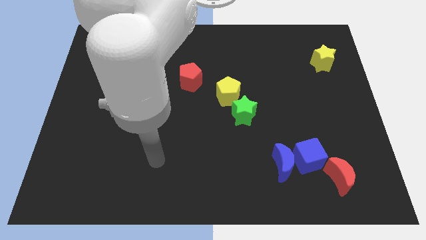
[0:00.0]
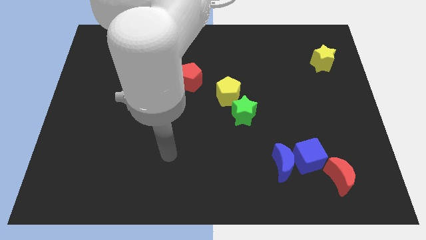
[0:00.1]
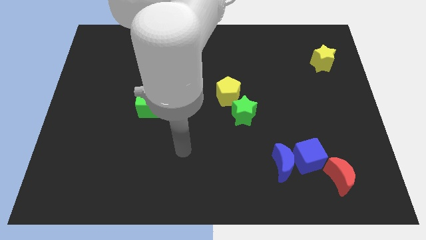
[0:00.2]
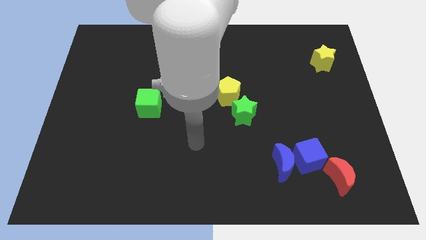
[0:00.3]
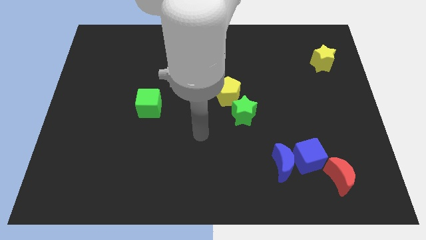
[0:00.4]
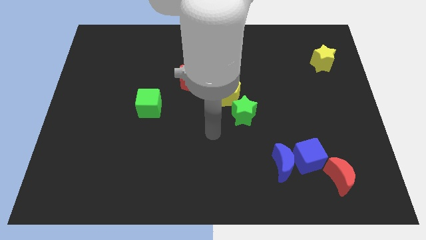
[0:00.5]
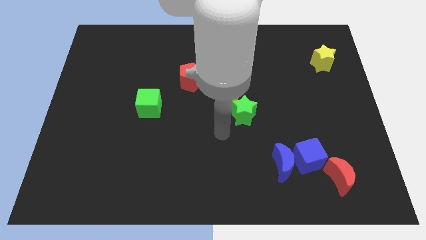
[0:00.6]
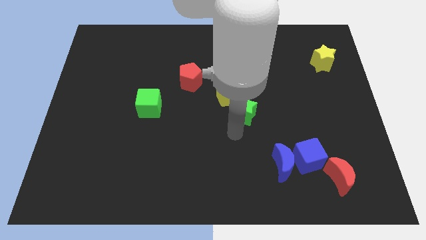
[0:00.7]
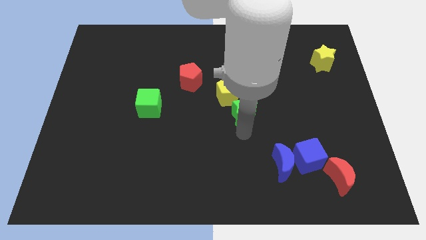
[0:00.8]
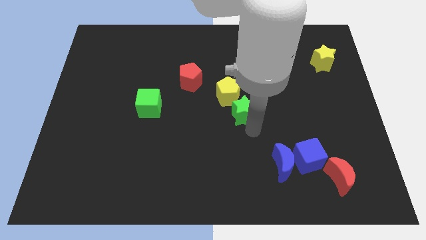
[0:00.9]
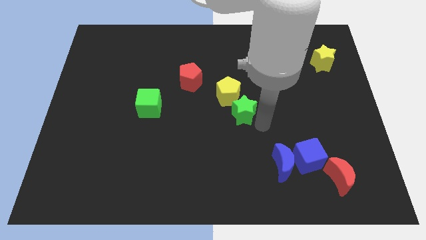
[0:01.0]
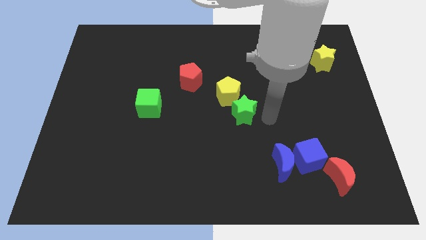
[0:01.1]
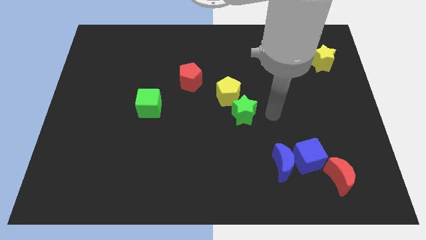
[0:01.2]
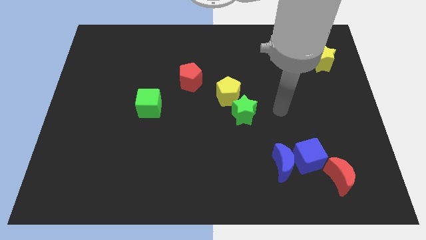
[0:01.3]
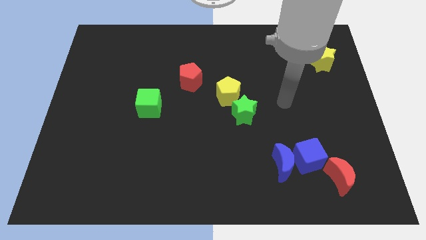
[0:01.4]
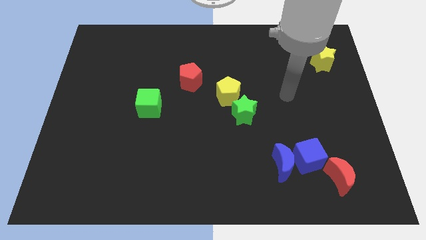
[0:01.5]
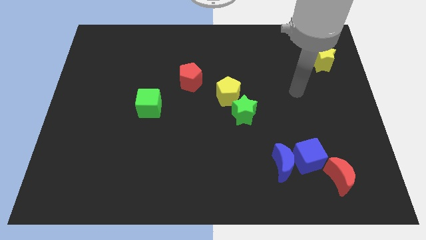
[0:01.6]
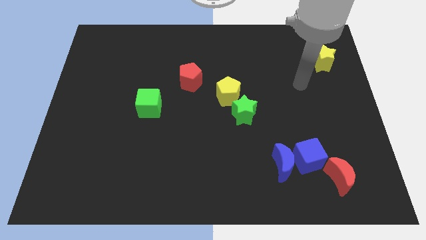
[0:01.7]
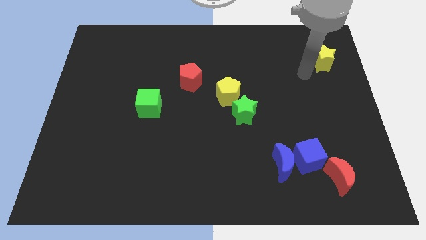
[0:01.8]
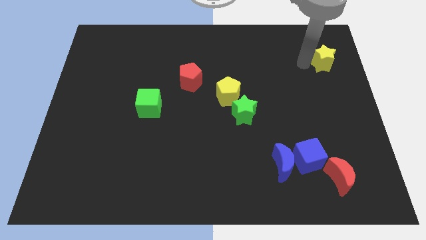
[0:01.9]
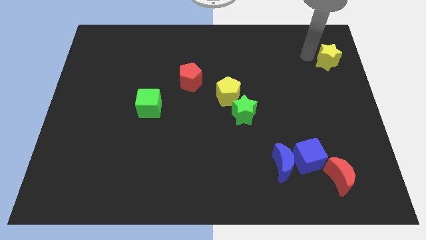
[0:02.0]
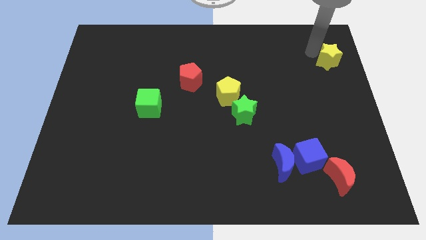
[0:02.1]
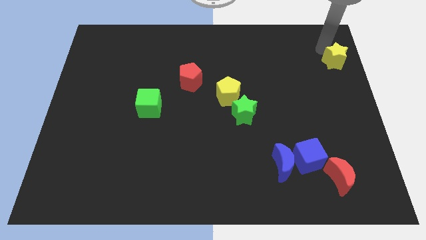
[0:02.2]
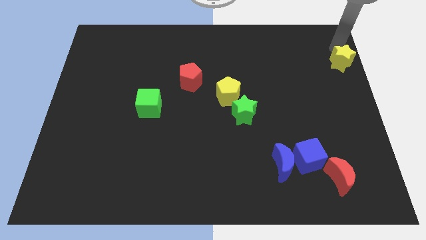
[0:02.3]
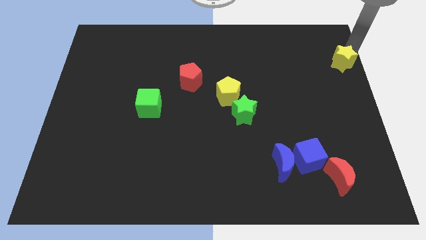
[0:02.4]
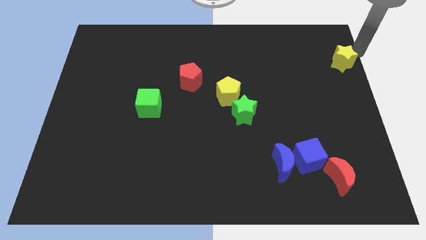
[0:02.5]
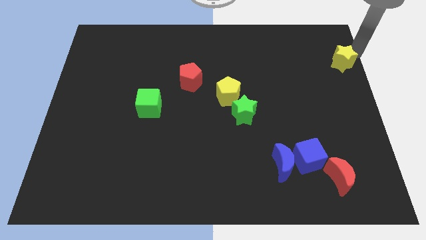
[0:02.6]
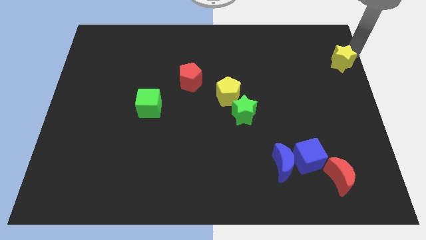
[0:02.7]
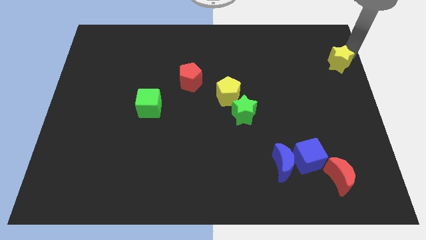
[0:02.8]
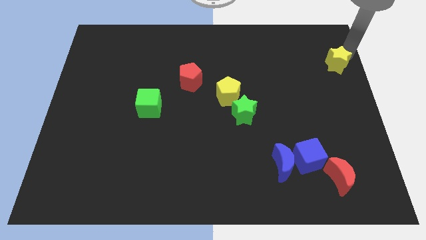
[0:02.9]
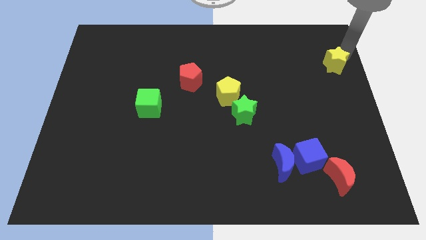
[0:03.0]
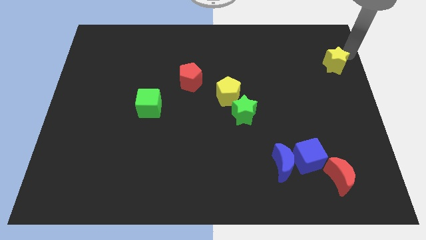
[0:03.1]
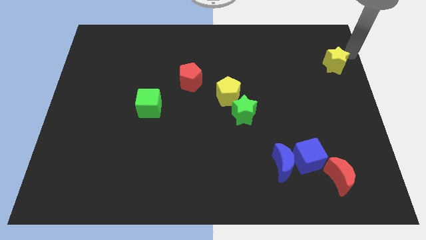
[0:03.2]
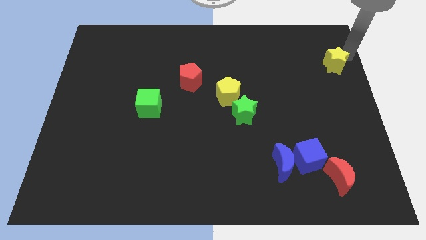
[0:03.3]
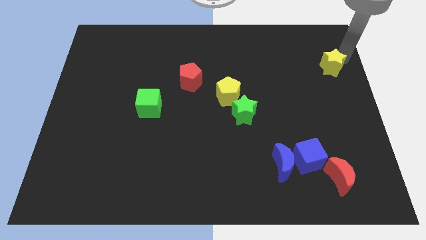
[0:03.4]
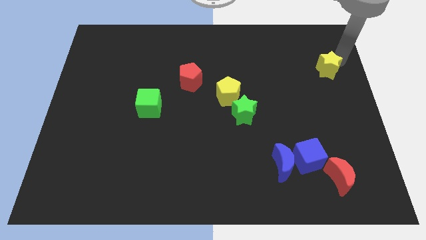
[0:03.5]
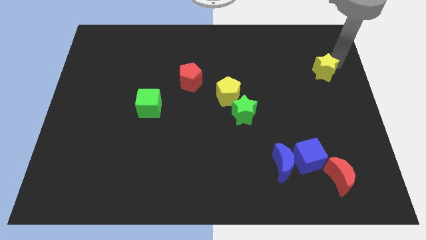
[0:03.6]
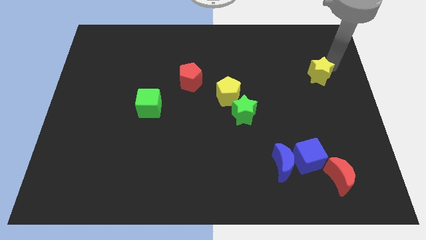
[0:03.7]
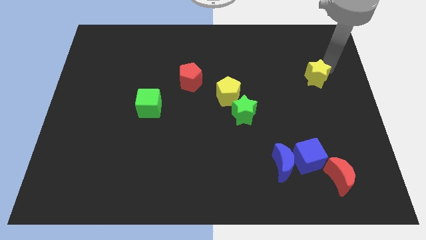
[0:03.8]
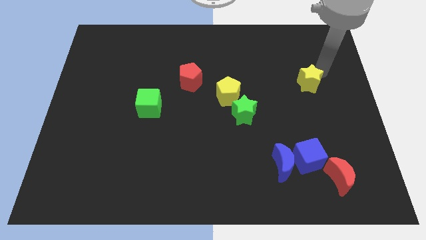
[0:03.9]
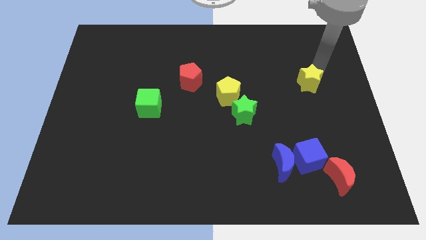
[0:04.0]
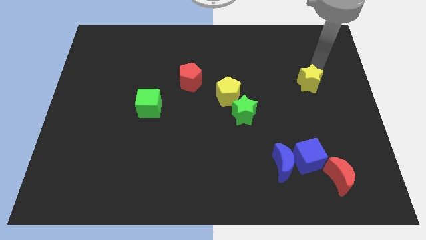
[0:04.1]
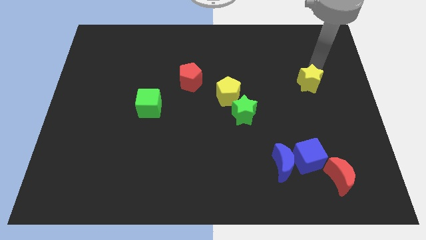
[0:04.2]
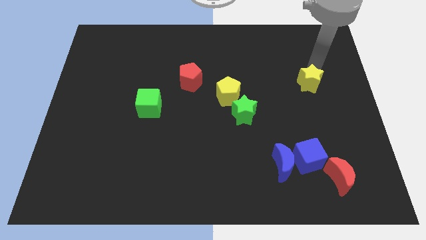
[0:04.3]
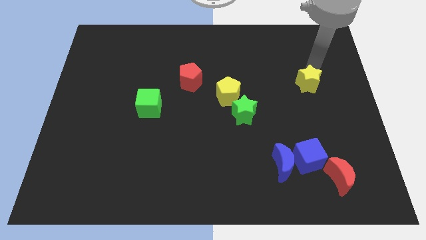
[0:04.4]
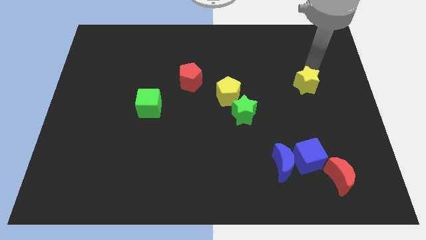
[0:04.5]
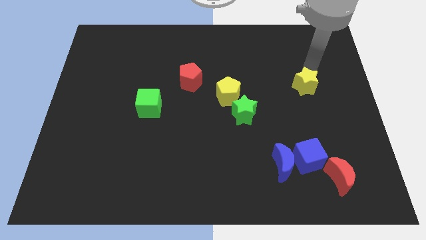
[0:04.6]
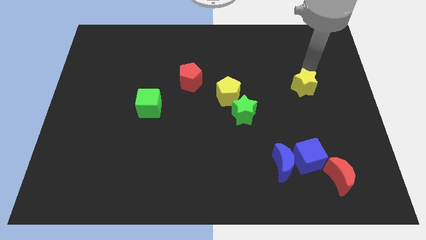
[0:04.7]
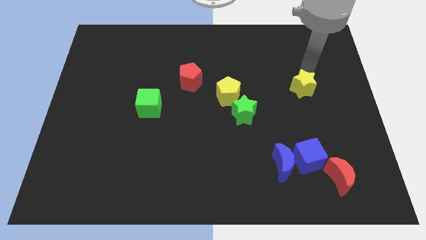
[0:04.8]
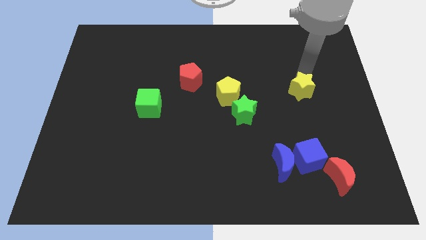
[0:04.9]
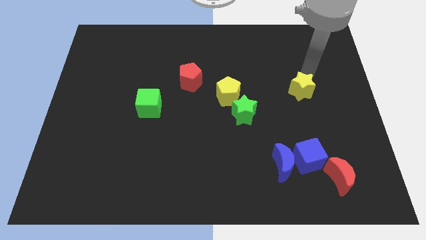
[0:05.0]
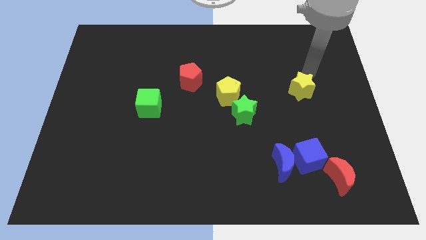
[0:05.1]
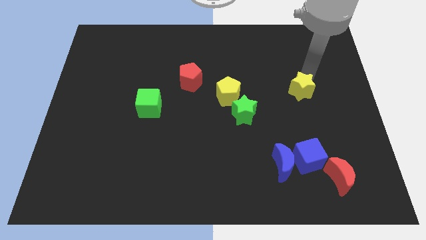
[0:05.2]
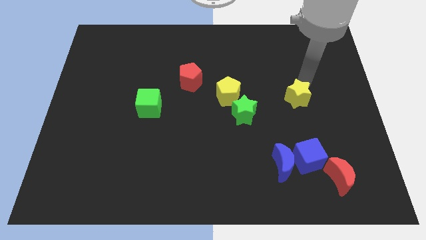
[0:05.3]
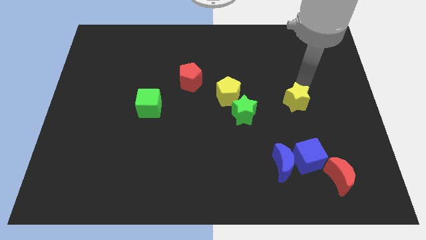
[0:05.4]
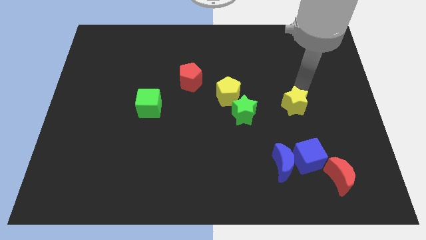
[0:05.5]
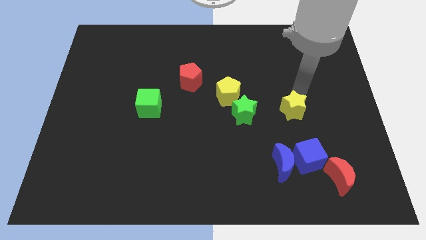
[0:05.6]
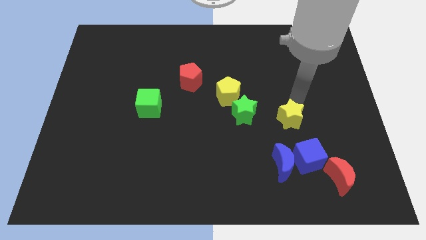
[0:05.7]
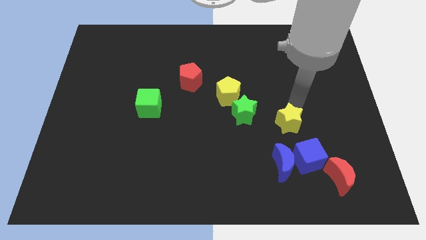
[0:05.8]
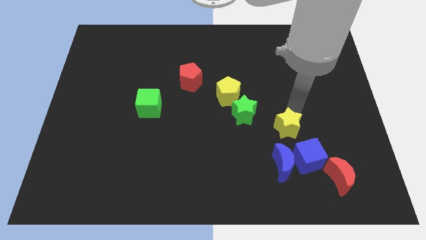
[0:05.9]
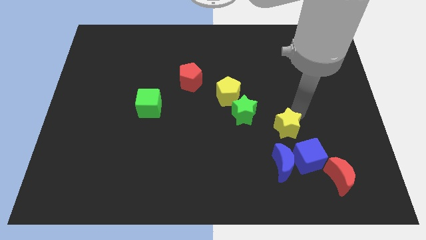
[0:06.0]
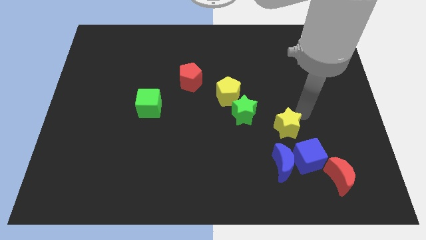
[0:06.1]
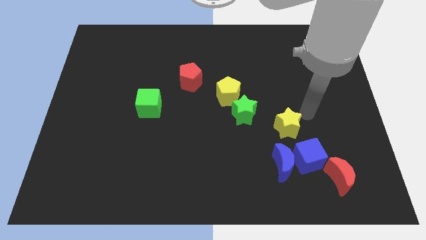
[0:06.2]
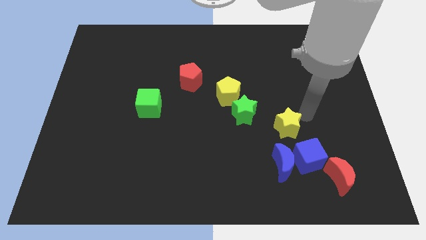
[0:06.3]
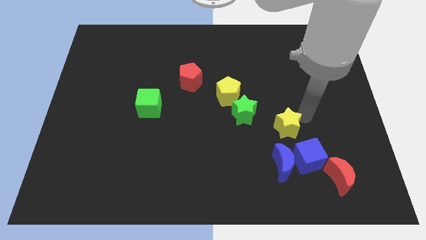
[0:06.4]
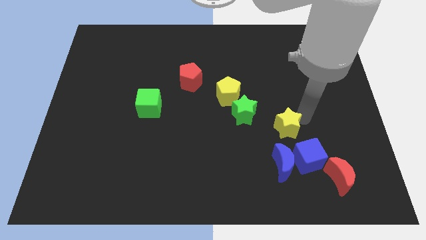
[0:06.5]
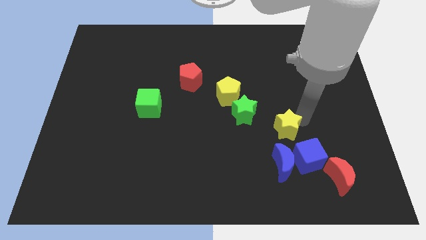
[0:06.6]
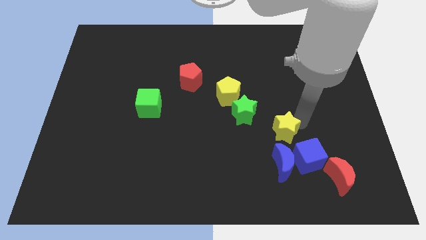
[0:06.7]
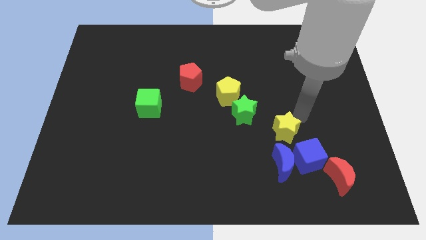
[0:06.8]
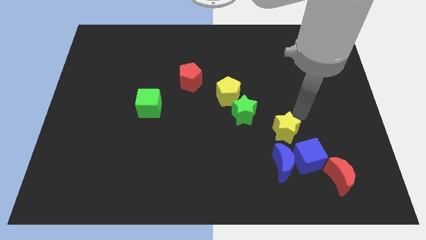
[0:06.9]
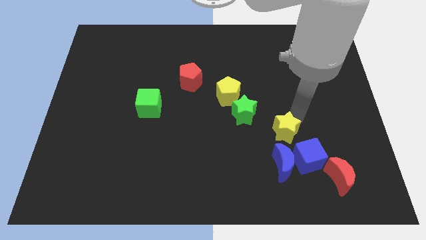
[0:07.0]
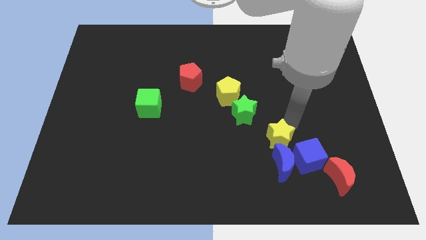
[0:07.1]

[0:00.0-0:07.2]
put the yellow star to the left side of the blue cube
